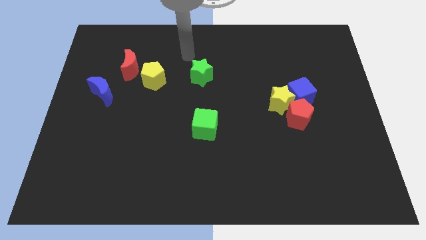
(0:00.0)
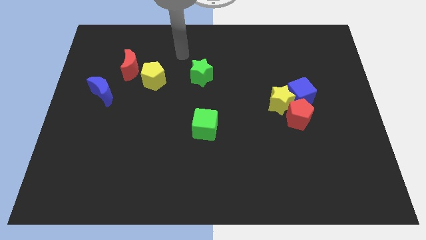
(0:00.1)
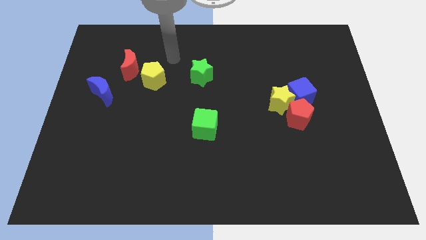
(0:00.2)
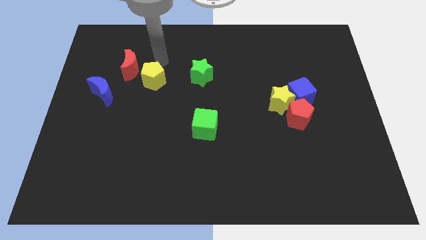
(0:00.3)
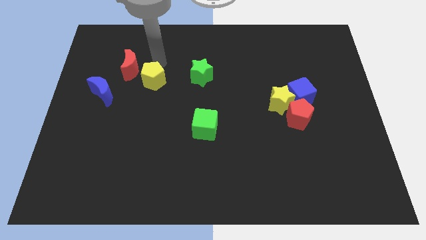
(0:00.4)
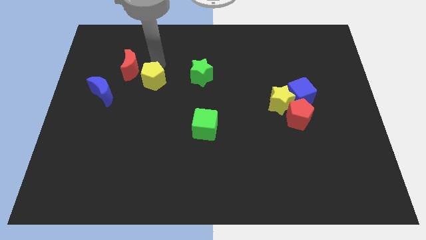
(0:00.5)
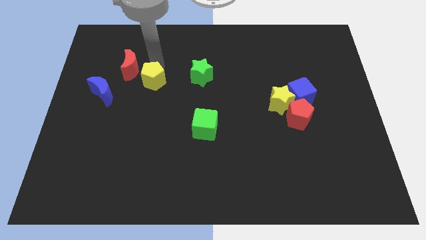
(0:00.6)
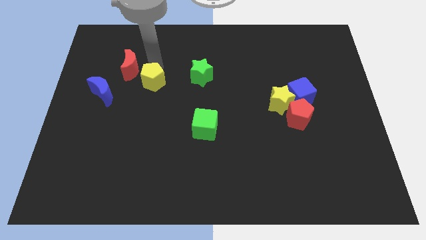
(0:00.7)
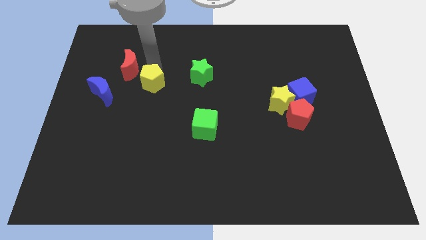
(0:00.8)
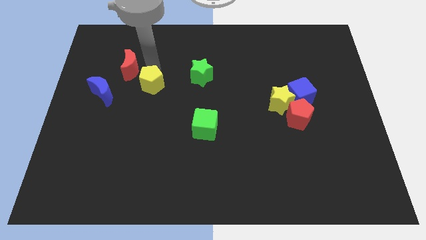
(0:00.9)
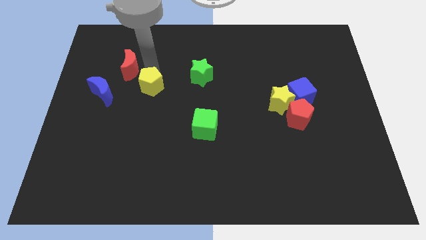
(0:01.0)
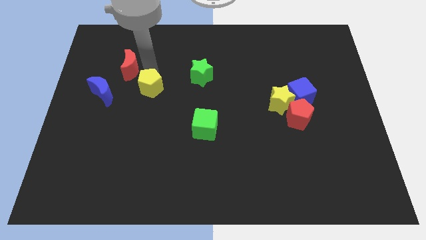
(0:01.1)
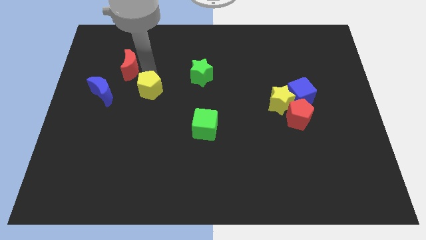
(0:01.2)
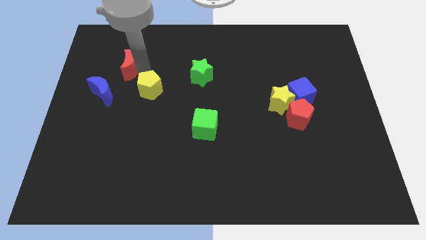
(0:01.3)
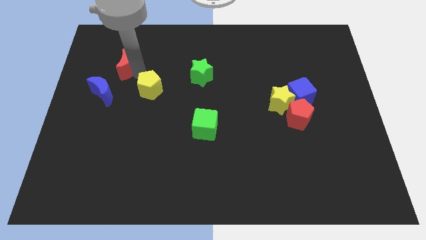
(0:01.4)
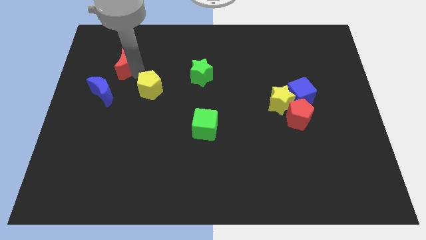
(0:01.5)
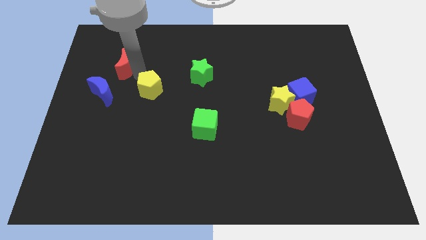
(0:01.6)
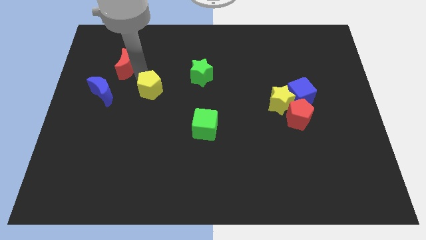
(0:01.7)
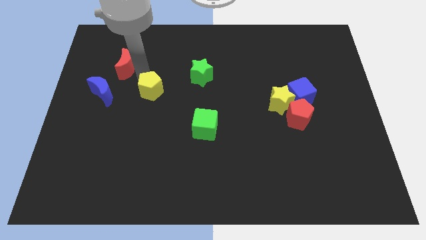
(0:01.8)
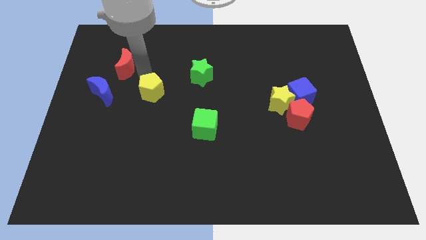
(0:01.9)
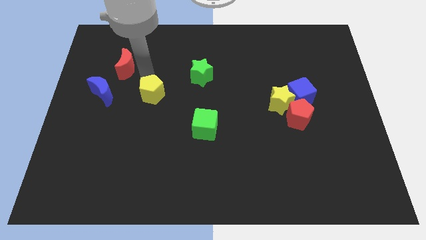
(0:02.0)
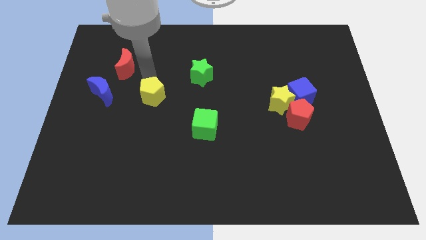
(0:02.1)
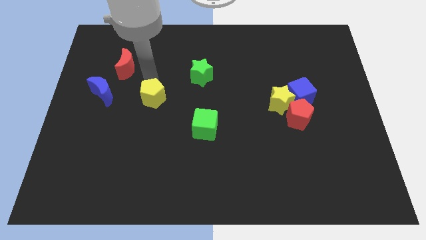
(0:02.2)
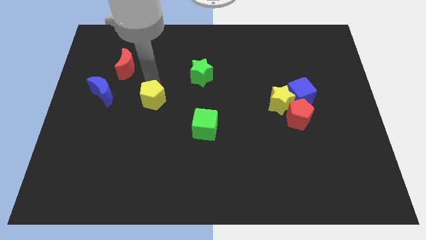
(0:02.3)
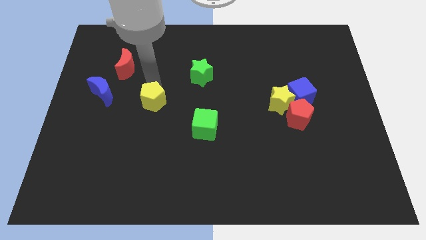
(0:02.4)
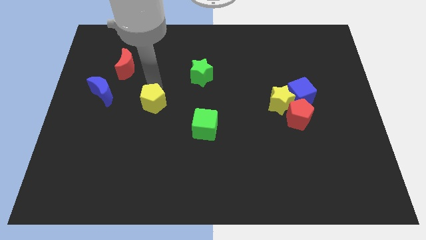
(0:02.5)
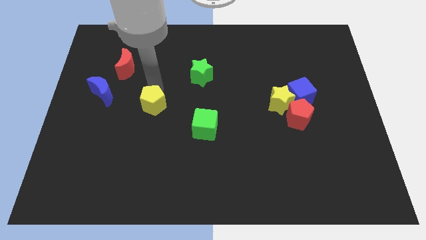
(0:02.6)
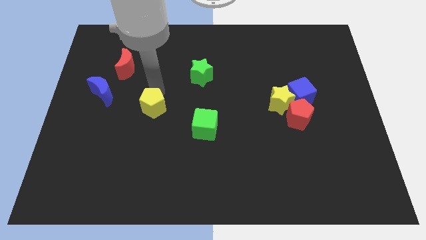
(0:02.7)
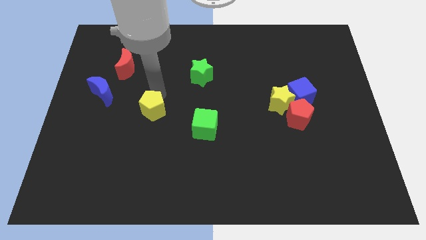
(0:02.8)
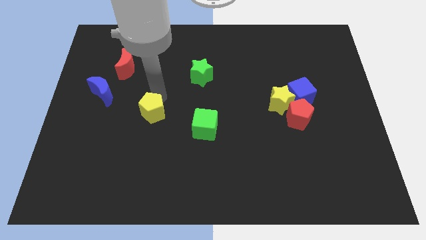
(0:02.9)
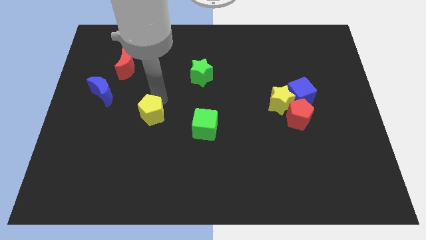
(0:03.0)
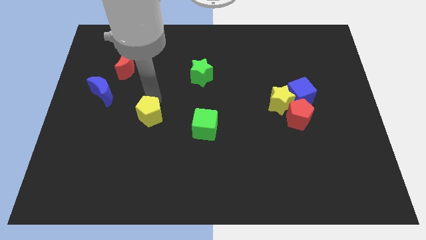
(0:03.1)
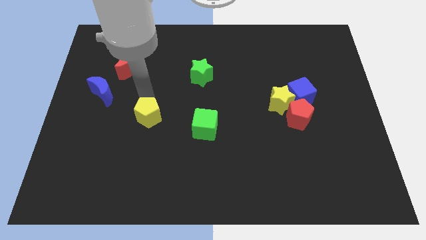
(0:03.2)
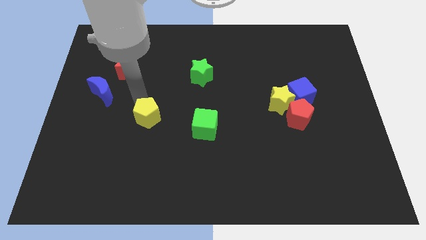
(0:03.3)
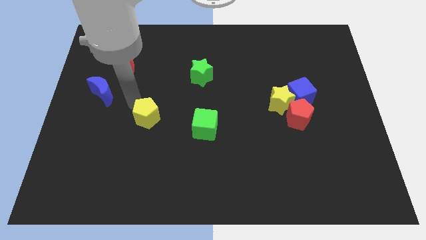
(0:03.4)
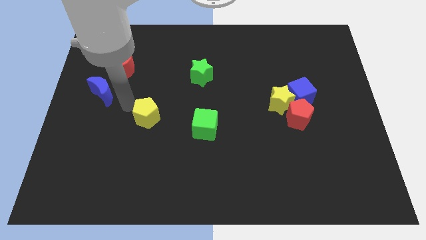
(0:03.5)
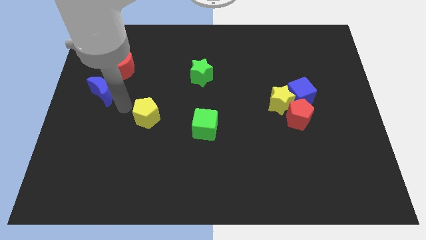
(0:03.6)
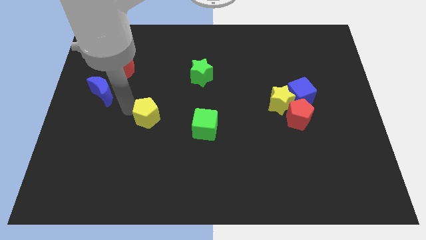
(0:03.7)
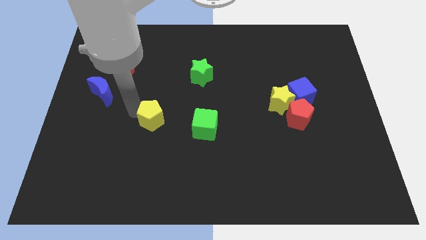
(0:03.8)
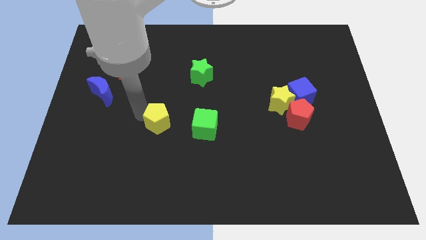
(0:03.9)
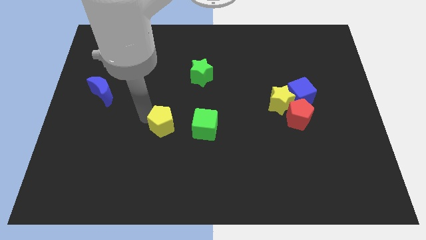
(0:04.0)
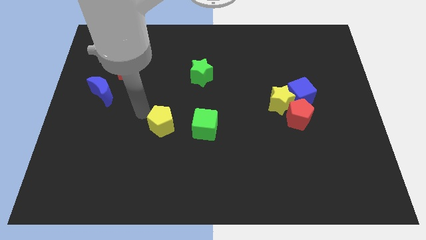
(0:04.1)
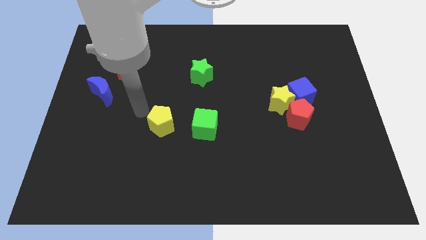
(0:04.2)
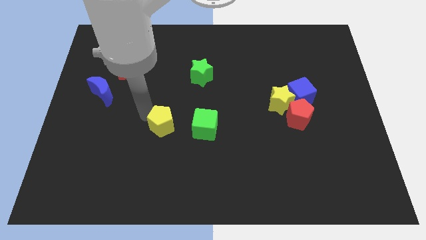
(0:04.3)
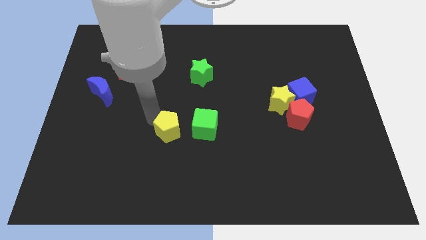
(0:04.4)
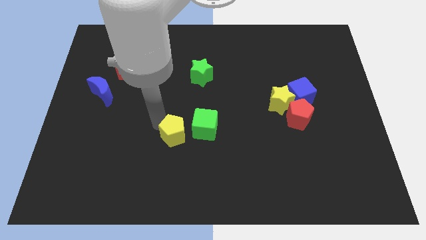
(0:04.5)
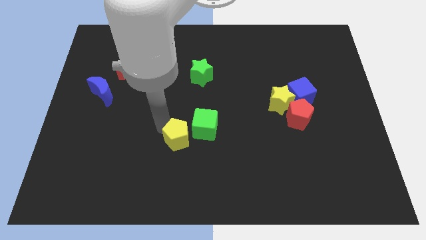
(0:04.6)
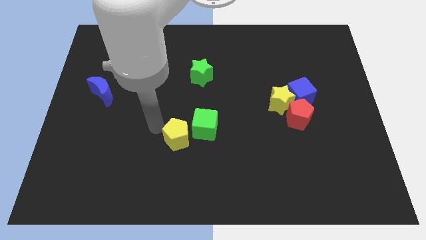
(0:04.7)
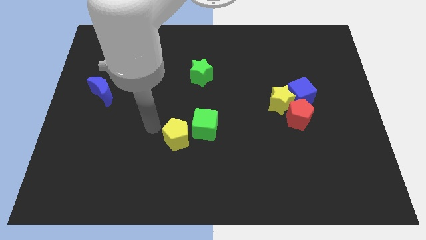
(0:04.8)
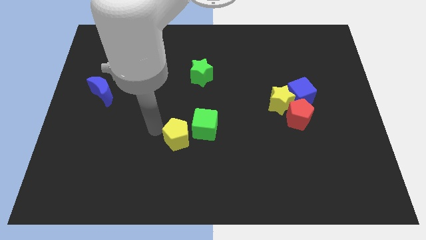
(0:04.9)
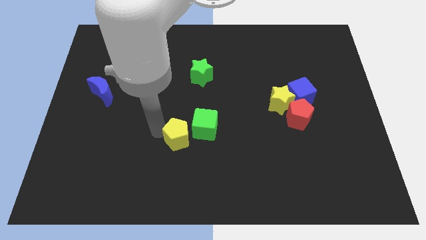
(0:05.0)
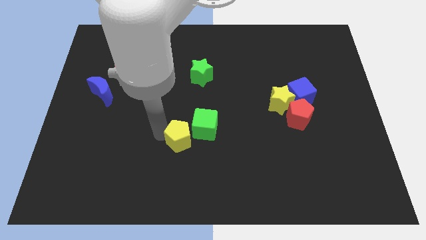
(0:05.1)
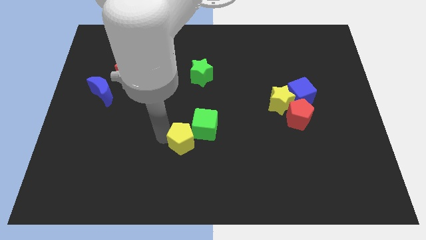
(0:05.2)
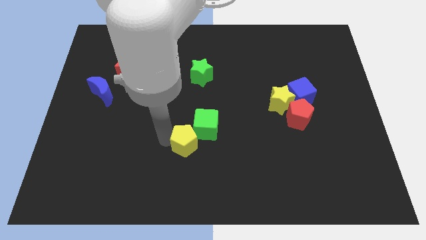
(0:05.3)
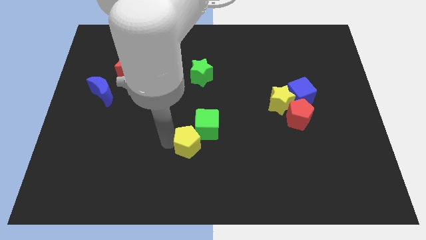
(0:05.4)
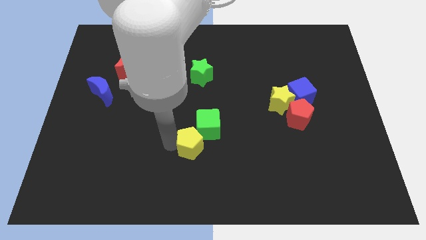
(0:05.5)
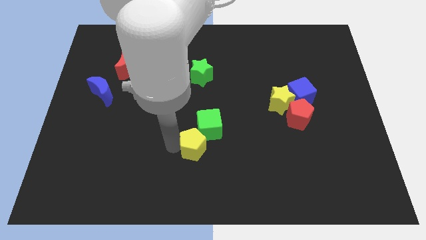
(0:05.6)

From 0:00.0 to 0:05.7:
move the yellow pentagon diagonally down and to the right

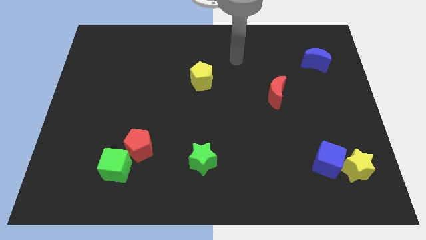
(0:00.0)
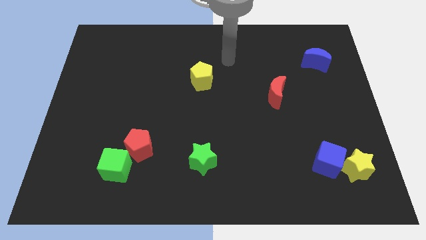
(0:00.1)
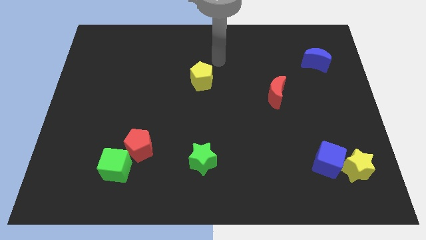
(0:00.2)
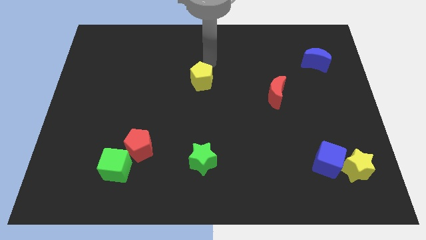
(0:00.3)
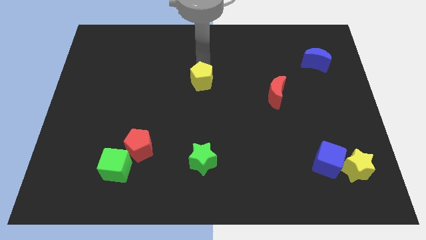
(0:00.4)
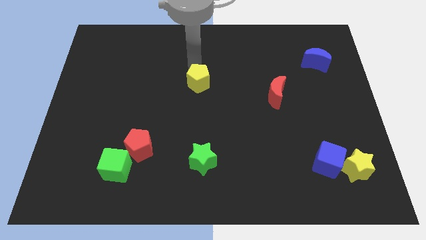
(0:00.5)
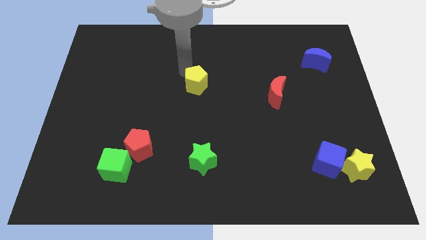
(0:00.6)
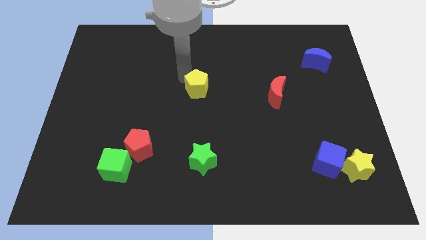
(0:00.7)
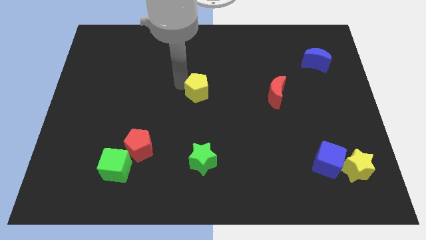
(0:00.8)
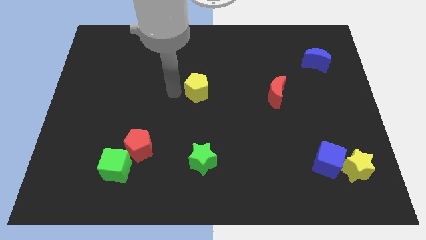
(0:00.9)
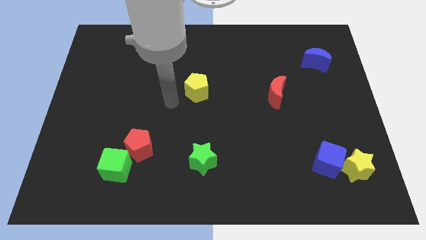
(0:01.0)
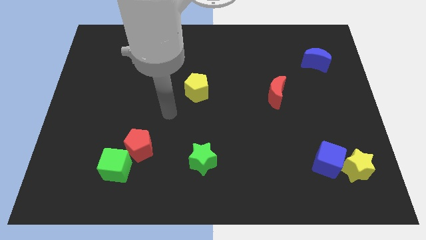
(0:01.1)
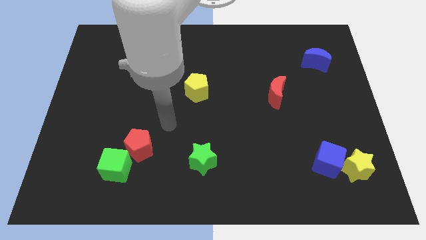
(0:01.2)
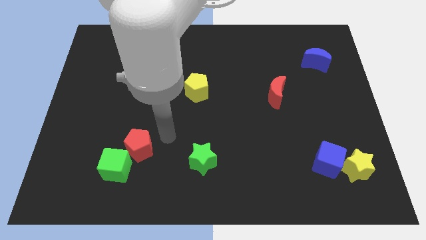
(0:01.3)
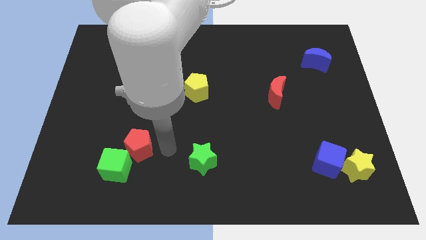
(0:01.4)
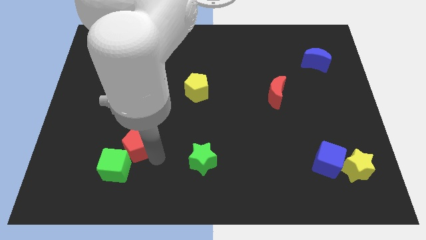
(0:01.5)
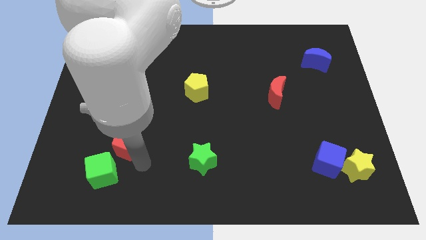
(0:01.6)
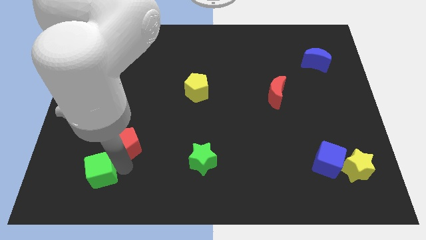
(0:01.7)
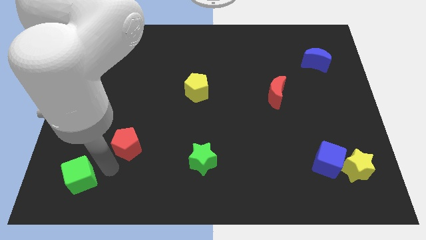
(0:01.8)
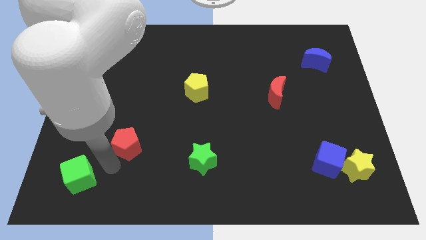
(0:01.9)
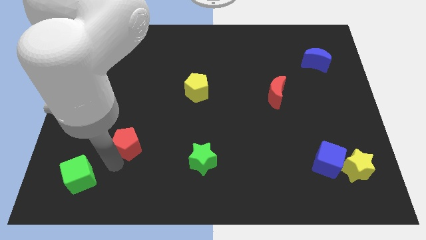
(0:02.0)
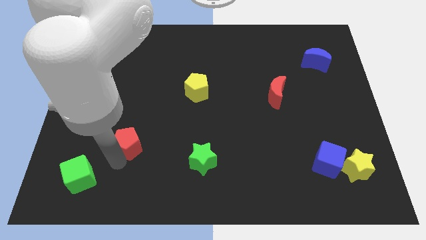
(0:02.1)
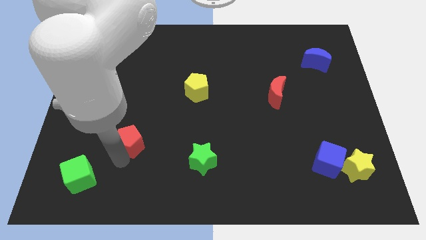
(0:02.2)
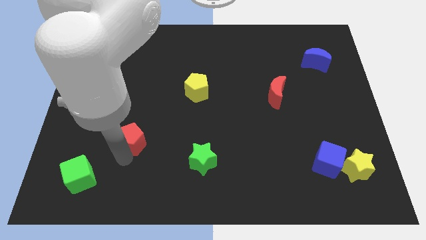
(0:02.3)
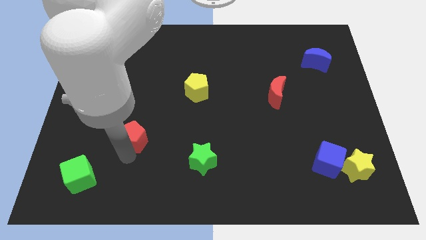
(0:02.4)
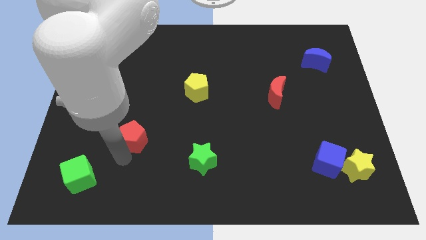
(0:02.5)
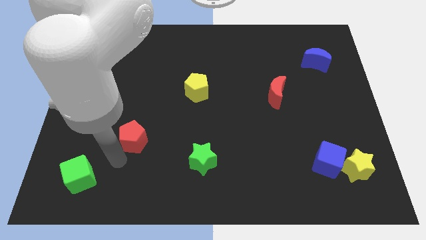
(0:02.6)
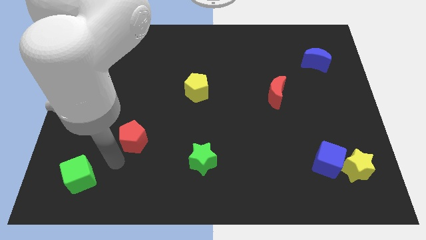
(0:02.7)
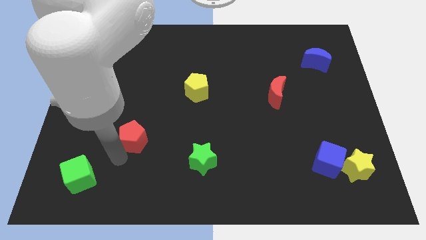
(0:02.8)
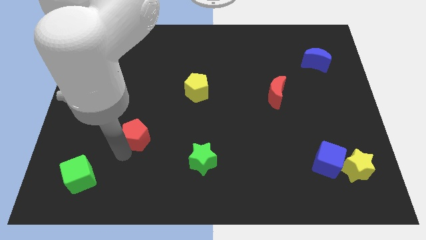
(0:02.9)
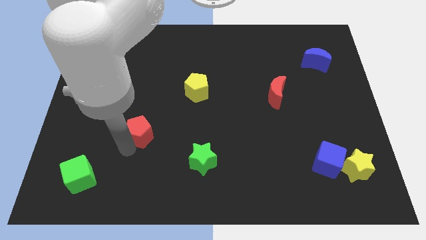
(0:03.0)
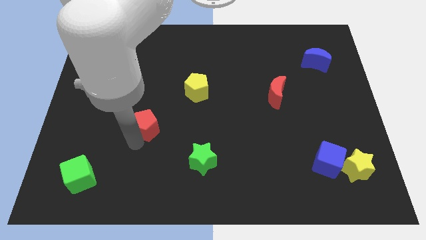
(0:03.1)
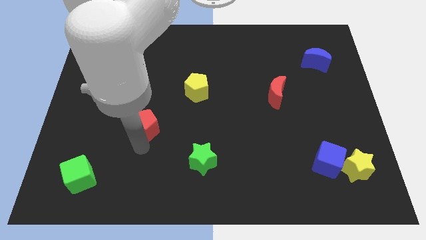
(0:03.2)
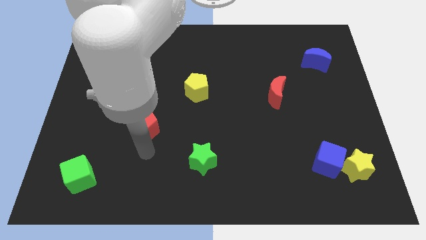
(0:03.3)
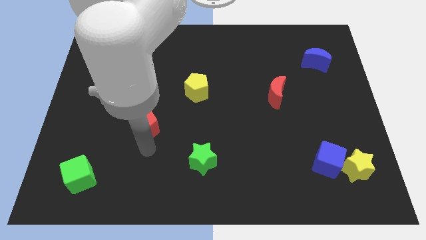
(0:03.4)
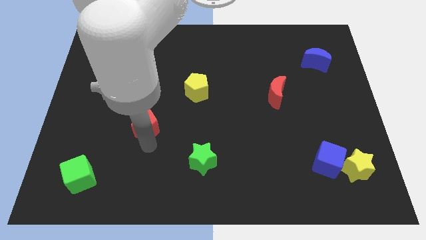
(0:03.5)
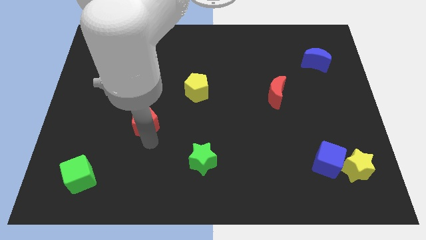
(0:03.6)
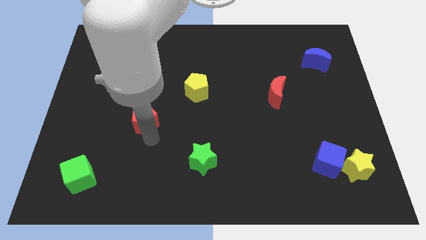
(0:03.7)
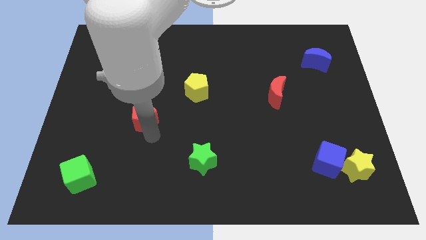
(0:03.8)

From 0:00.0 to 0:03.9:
move the red pentagon a little upwards
